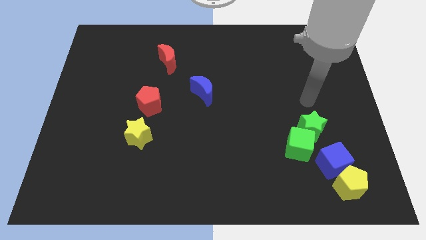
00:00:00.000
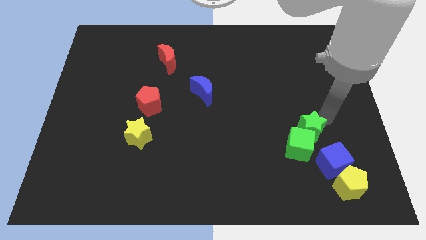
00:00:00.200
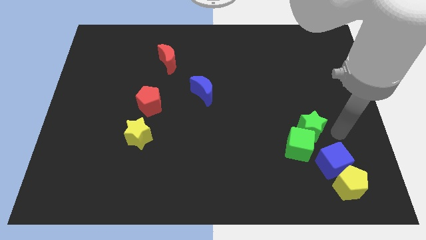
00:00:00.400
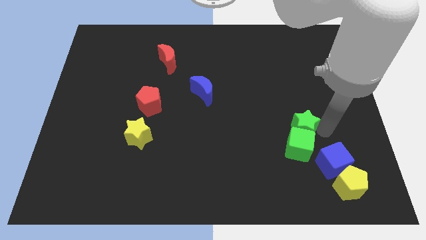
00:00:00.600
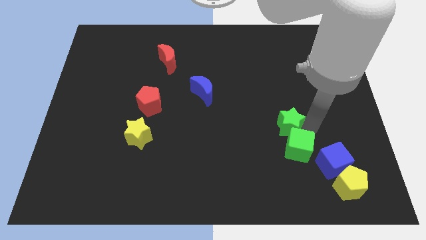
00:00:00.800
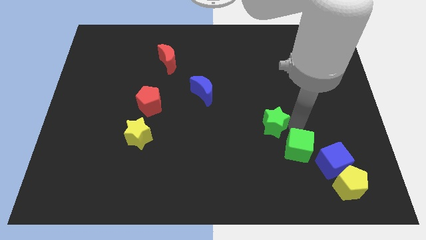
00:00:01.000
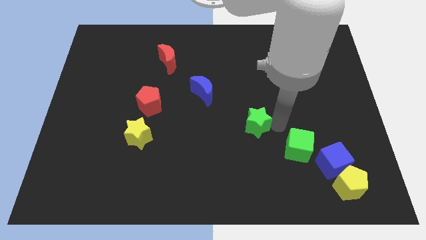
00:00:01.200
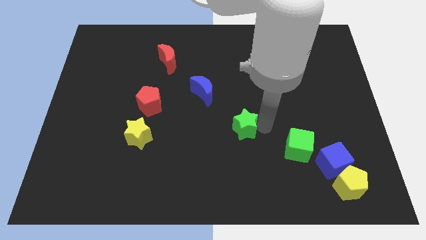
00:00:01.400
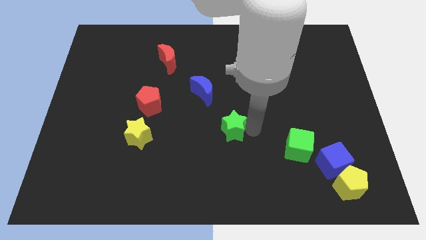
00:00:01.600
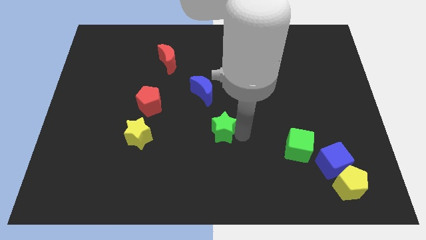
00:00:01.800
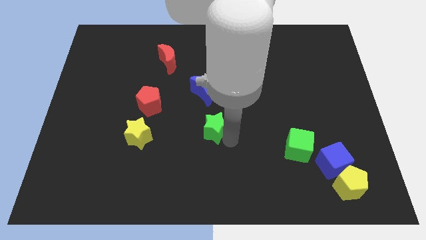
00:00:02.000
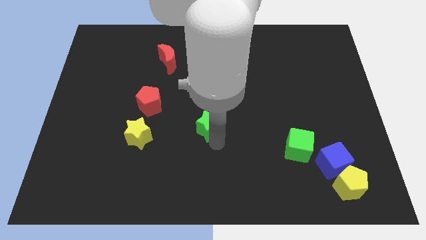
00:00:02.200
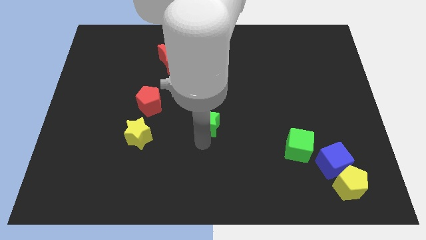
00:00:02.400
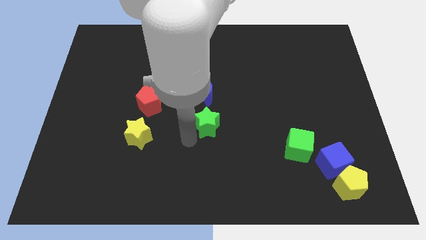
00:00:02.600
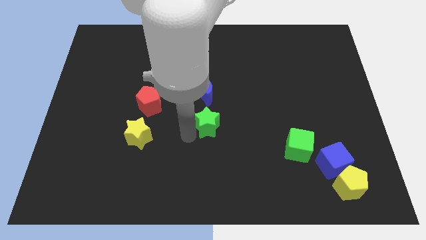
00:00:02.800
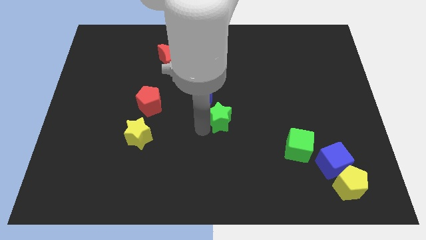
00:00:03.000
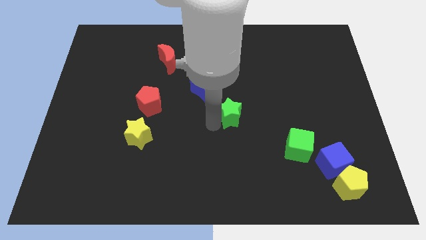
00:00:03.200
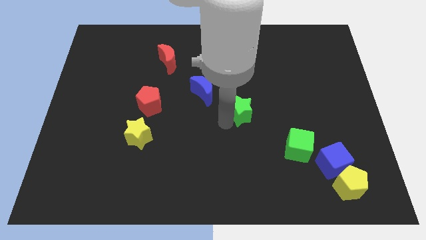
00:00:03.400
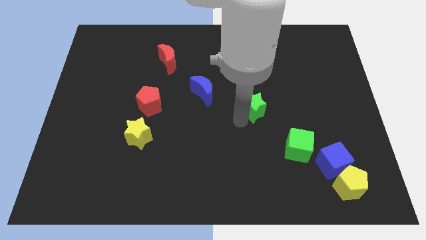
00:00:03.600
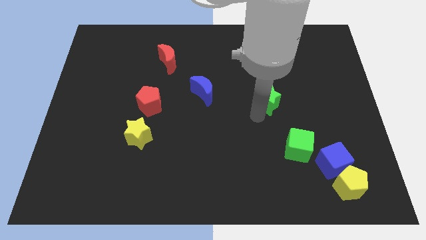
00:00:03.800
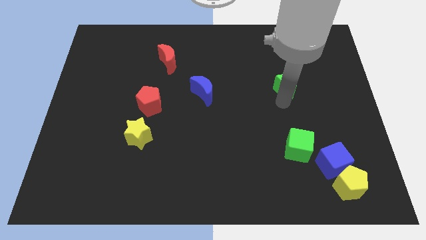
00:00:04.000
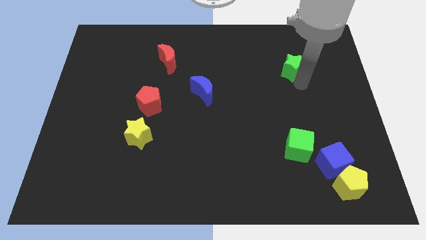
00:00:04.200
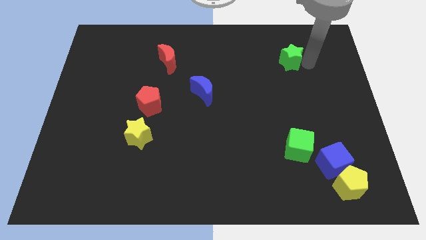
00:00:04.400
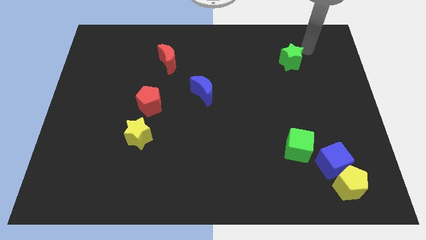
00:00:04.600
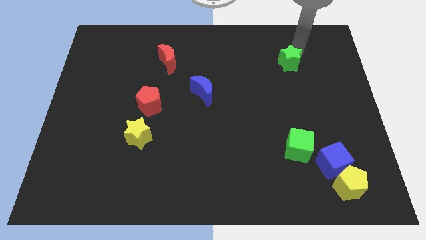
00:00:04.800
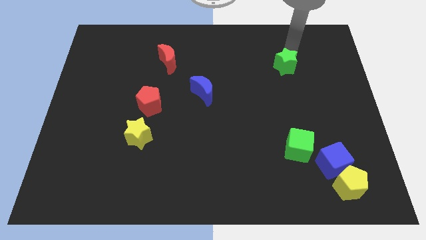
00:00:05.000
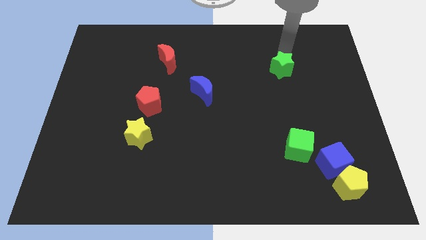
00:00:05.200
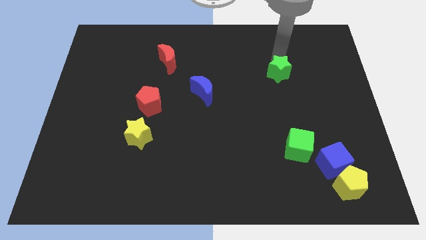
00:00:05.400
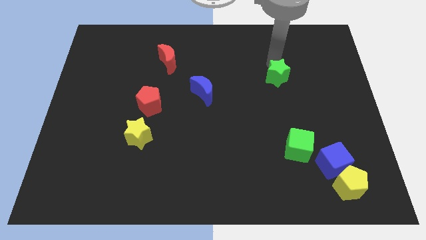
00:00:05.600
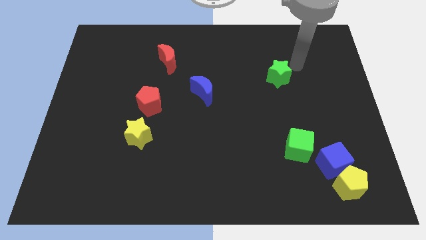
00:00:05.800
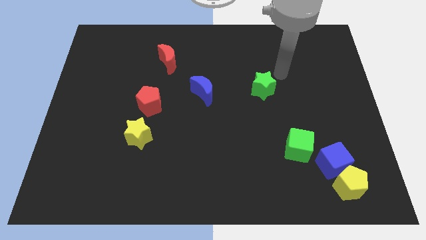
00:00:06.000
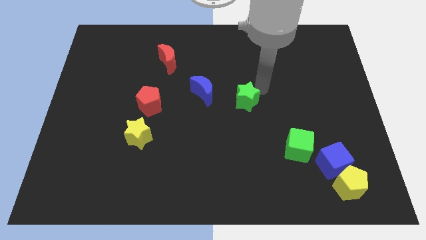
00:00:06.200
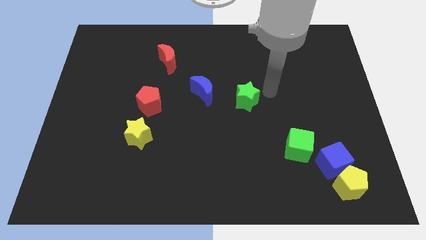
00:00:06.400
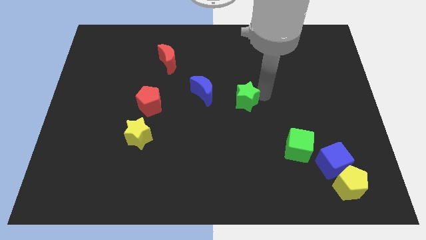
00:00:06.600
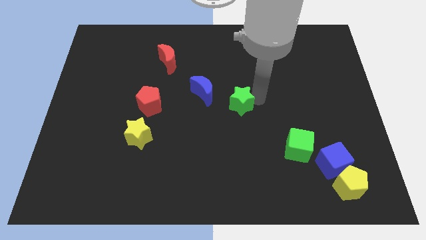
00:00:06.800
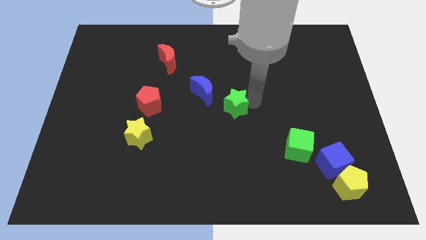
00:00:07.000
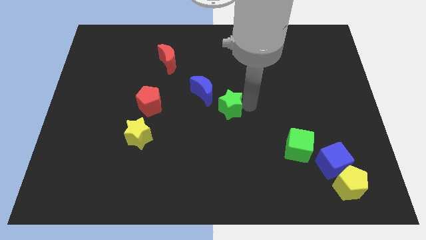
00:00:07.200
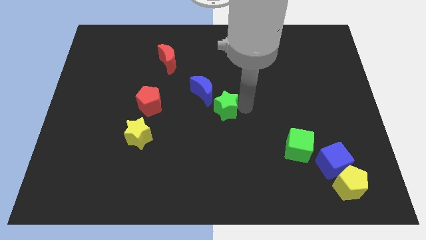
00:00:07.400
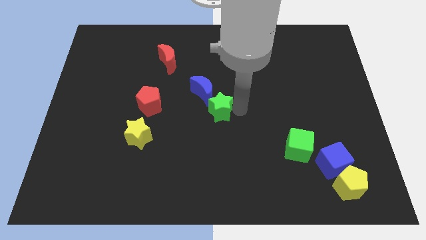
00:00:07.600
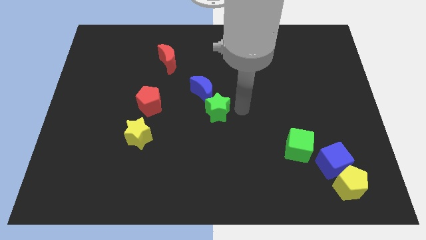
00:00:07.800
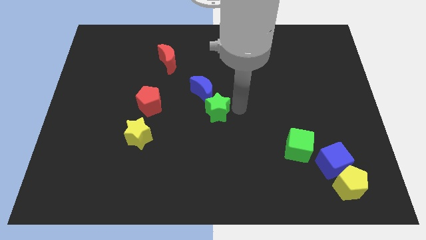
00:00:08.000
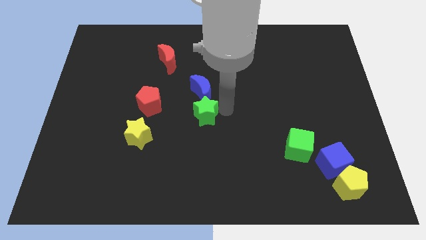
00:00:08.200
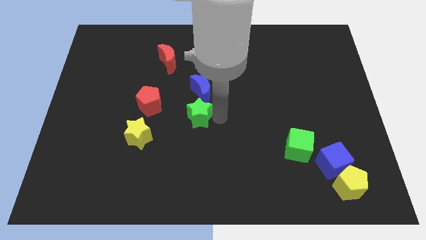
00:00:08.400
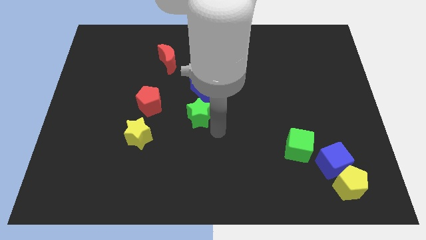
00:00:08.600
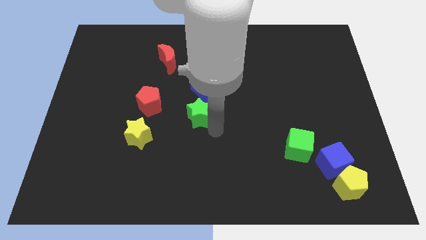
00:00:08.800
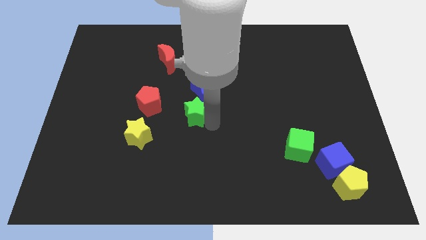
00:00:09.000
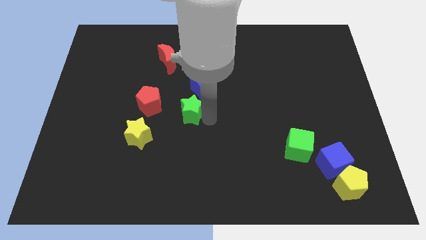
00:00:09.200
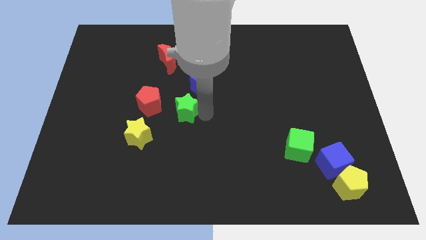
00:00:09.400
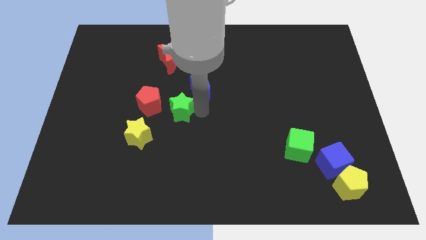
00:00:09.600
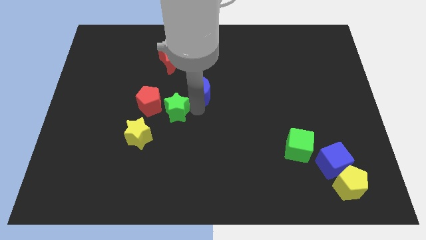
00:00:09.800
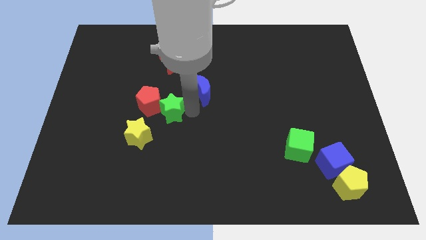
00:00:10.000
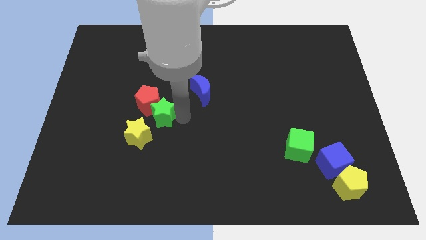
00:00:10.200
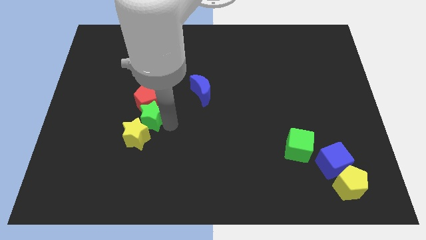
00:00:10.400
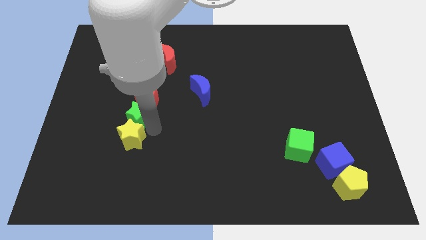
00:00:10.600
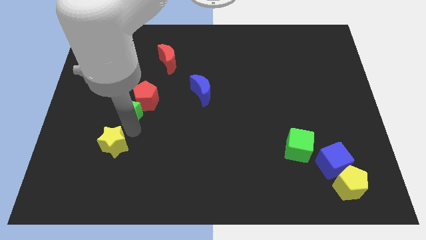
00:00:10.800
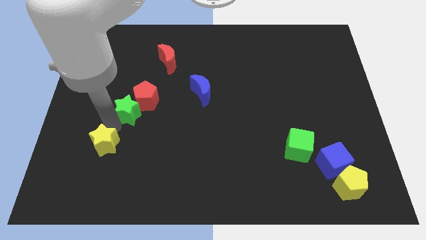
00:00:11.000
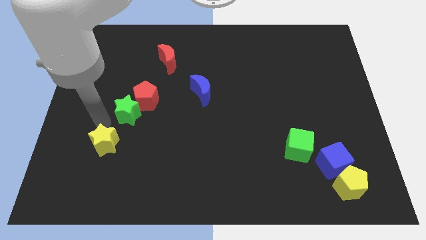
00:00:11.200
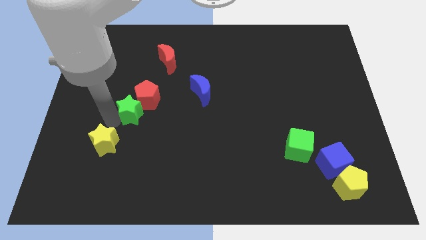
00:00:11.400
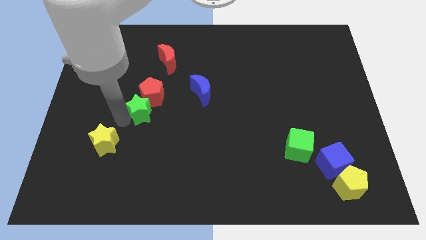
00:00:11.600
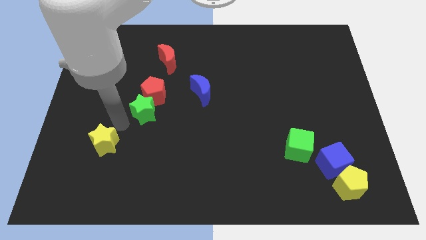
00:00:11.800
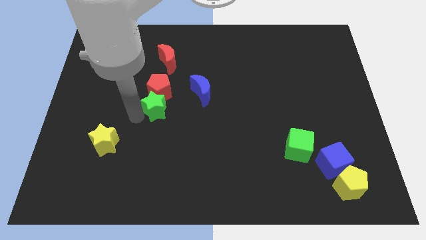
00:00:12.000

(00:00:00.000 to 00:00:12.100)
move the green star just left of the blue moon

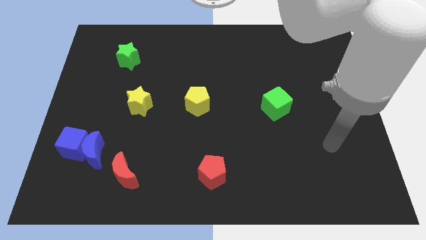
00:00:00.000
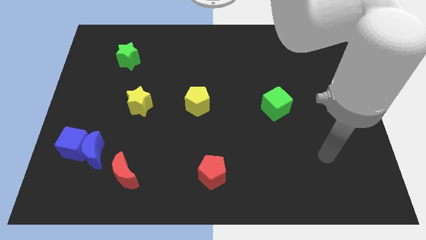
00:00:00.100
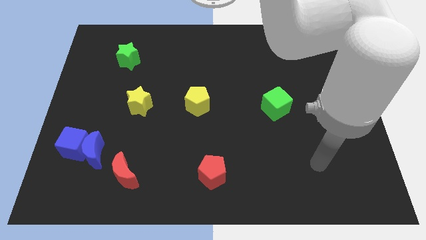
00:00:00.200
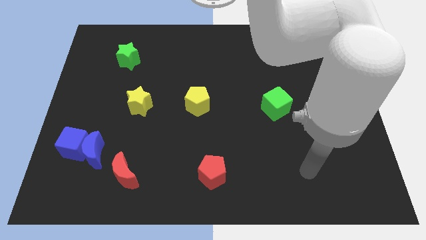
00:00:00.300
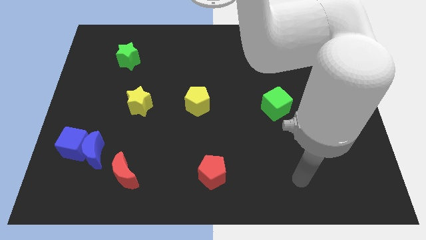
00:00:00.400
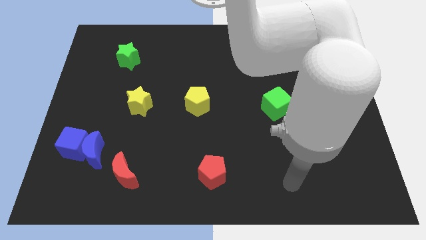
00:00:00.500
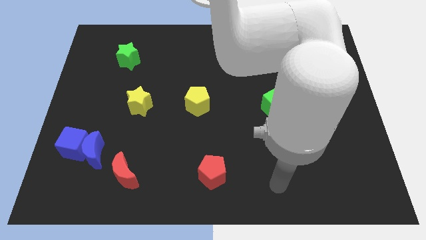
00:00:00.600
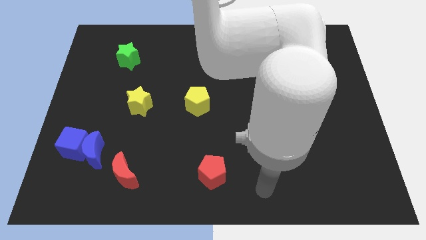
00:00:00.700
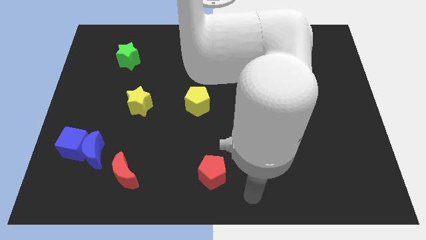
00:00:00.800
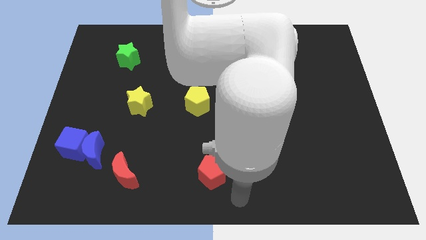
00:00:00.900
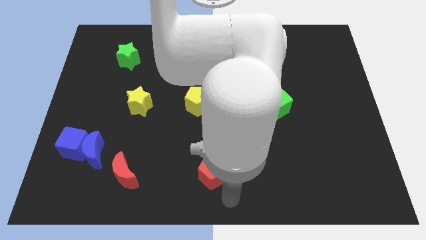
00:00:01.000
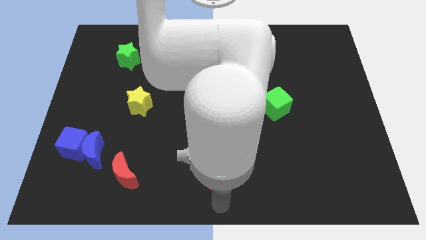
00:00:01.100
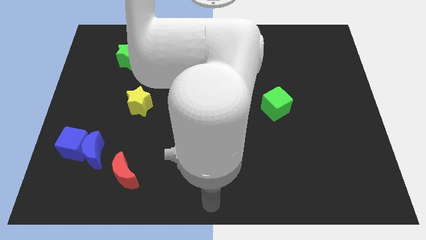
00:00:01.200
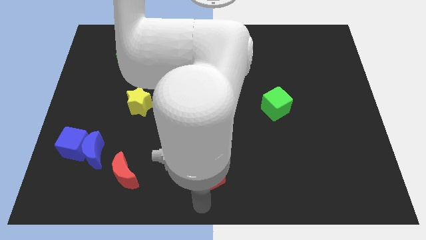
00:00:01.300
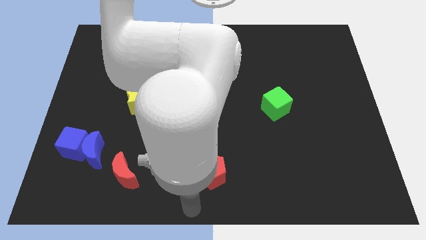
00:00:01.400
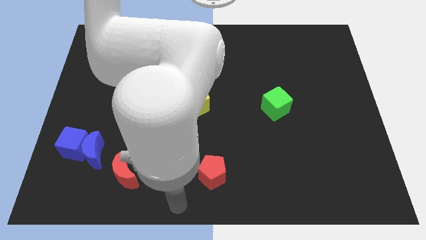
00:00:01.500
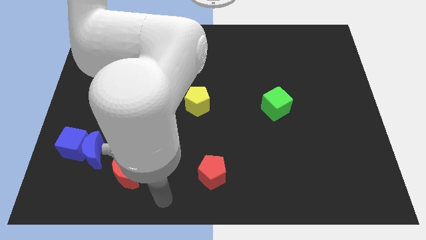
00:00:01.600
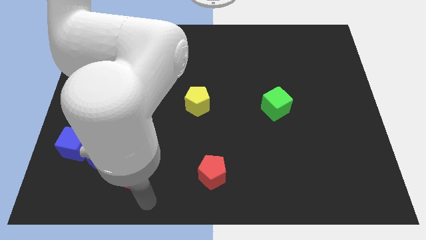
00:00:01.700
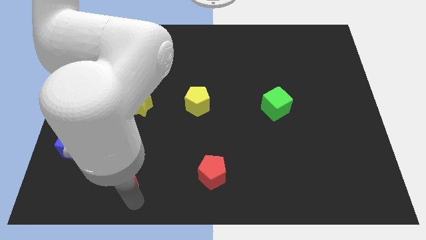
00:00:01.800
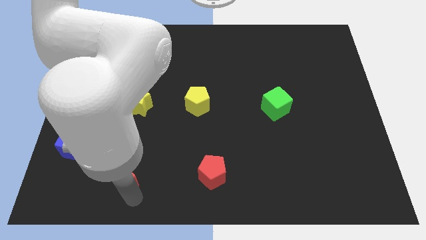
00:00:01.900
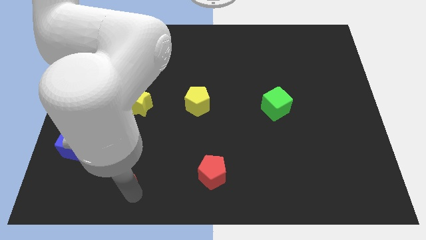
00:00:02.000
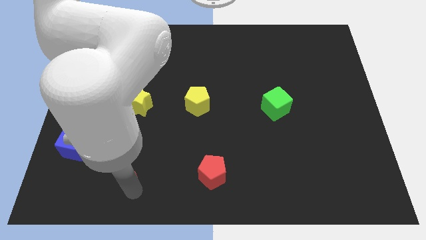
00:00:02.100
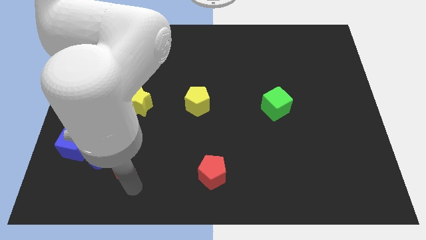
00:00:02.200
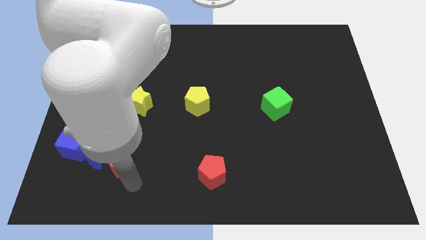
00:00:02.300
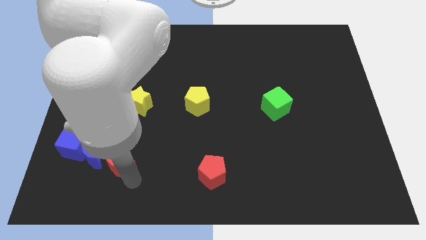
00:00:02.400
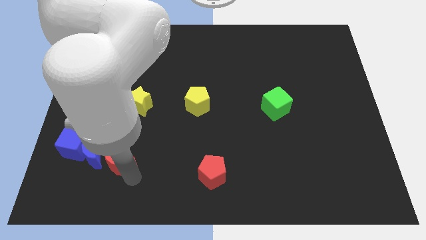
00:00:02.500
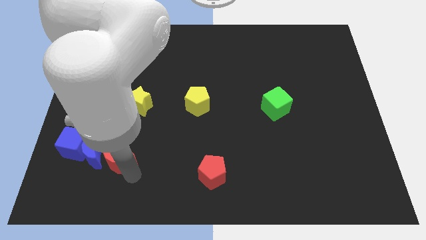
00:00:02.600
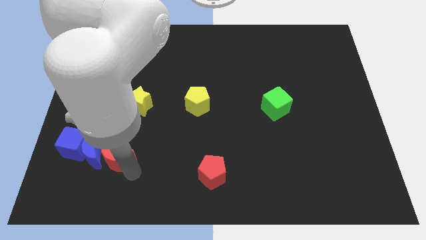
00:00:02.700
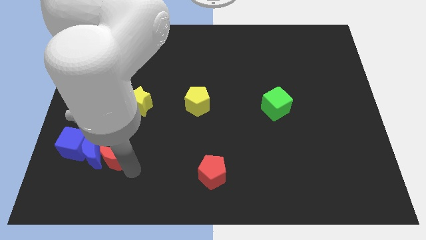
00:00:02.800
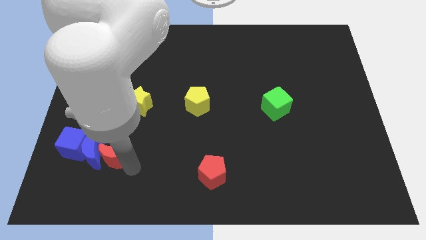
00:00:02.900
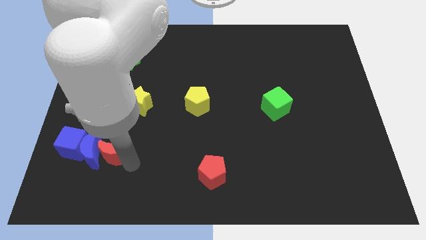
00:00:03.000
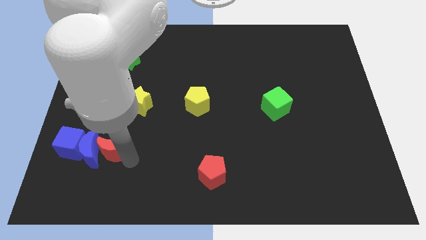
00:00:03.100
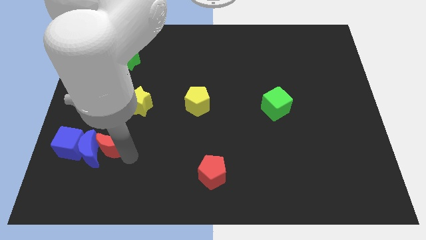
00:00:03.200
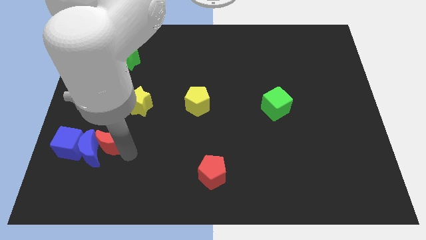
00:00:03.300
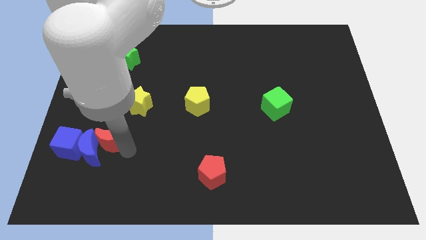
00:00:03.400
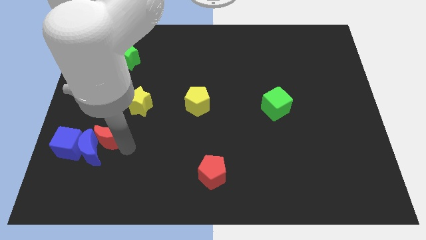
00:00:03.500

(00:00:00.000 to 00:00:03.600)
push the red moon to the top right of the blue cube
